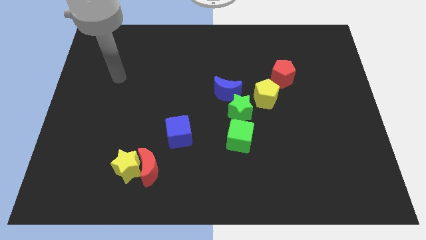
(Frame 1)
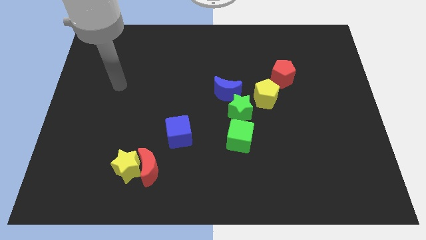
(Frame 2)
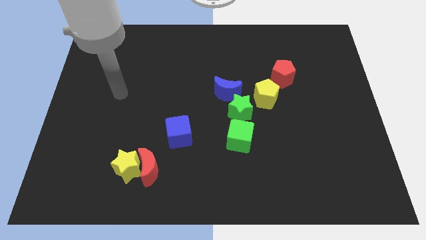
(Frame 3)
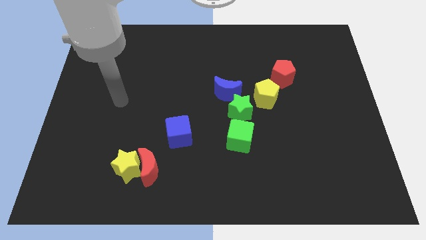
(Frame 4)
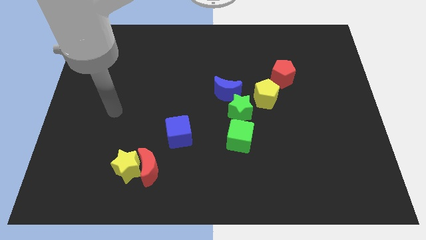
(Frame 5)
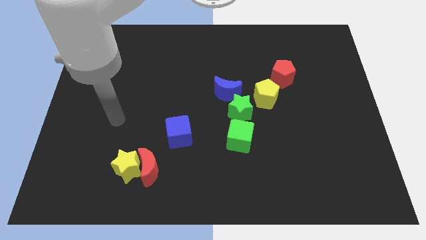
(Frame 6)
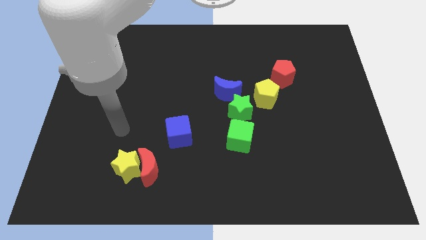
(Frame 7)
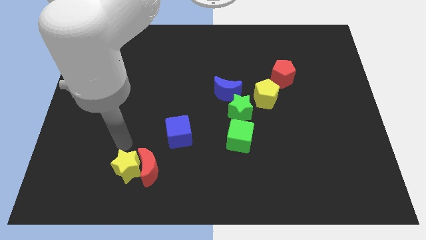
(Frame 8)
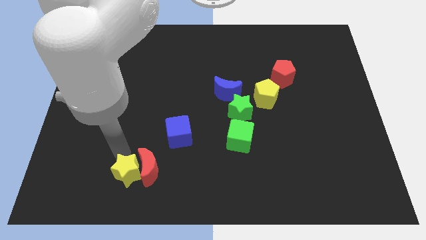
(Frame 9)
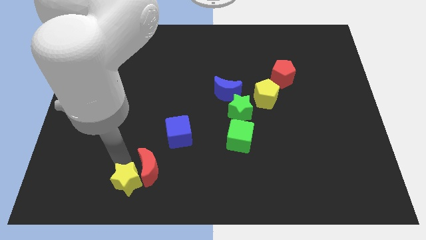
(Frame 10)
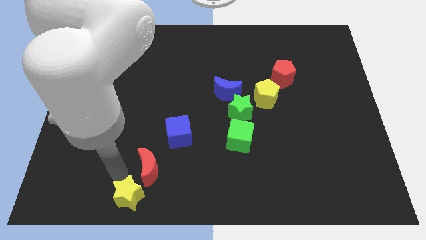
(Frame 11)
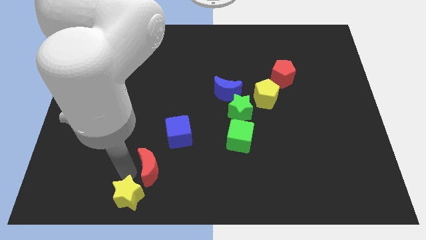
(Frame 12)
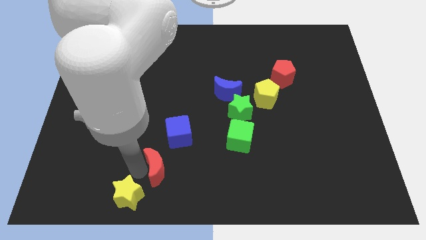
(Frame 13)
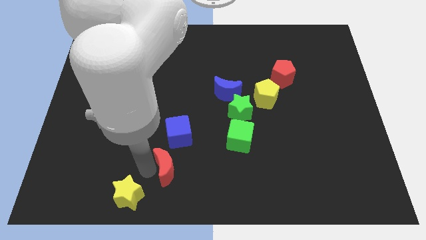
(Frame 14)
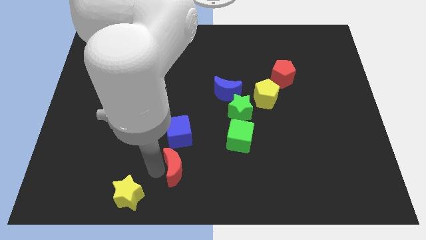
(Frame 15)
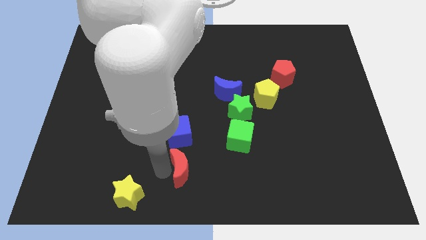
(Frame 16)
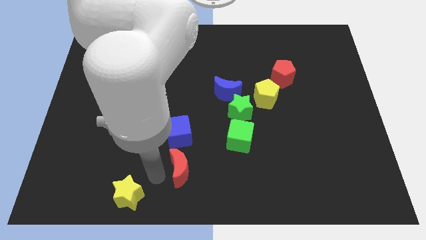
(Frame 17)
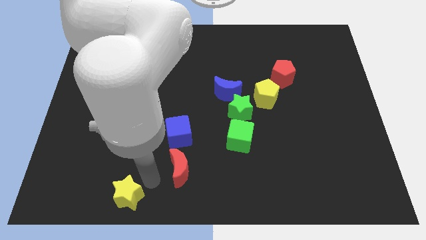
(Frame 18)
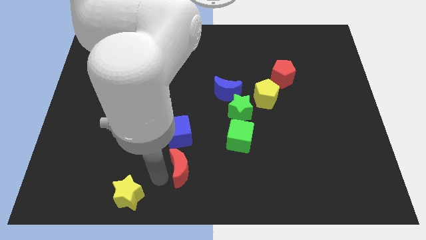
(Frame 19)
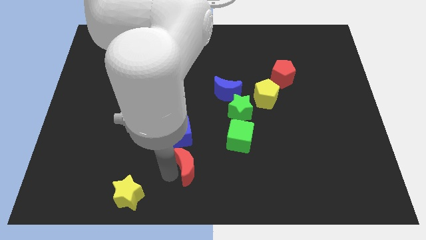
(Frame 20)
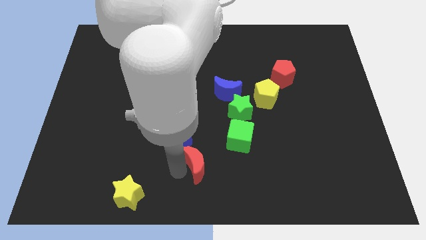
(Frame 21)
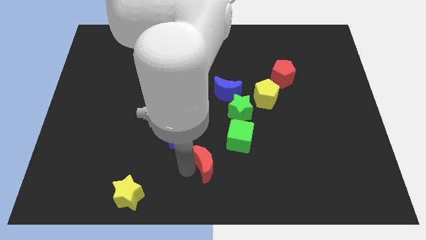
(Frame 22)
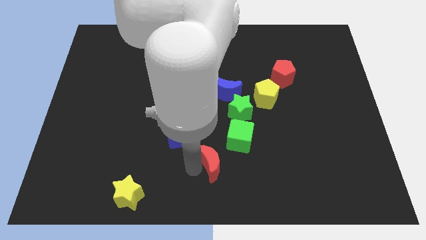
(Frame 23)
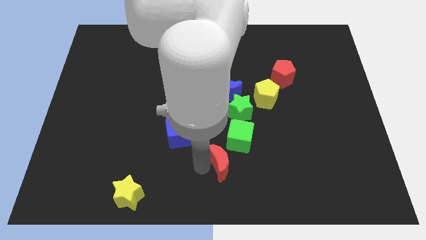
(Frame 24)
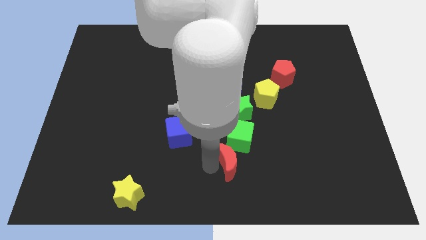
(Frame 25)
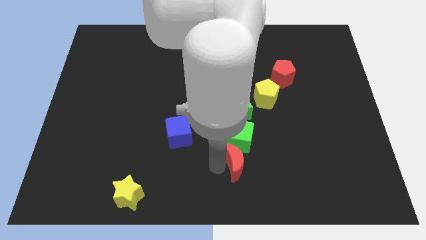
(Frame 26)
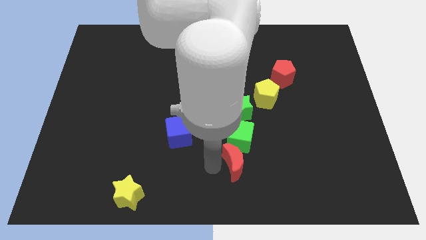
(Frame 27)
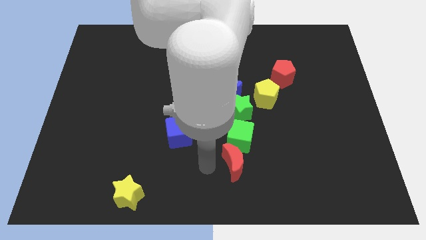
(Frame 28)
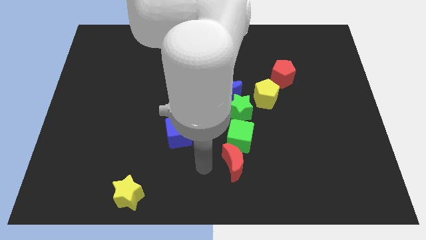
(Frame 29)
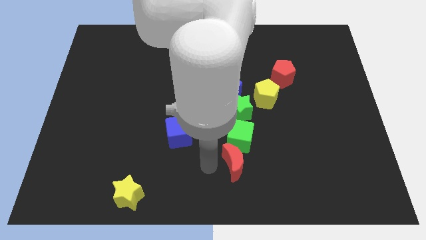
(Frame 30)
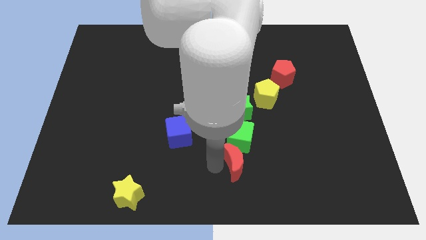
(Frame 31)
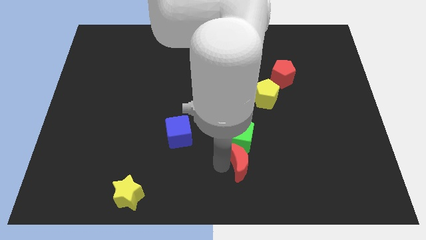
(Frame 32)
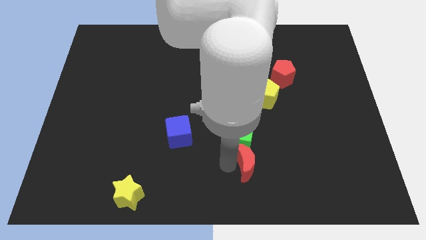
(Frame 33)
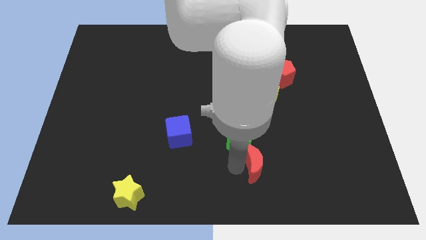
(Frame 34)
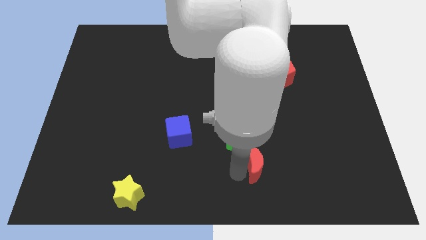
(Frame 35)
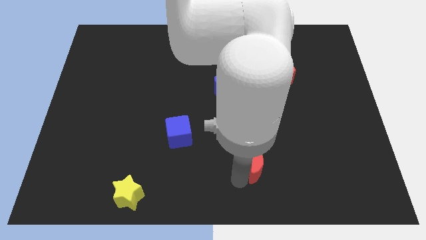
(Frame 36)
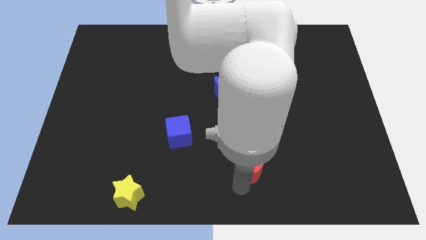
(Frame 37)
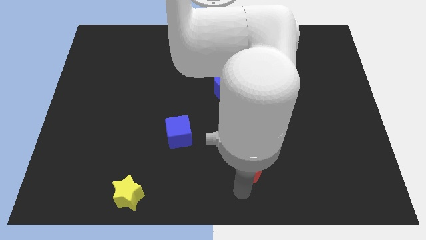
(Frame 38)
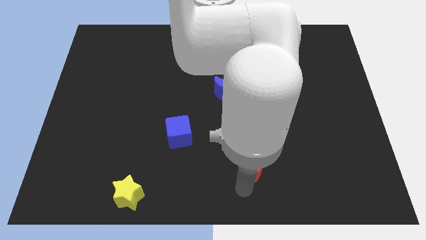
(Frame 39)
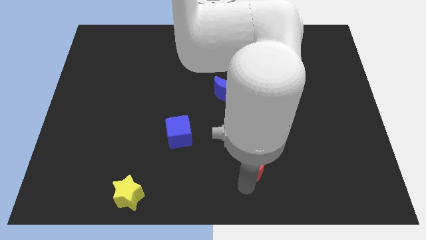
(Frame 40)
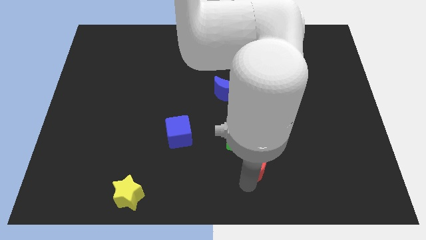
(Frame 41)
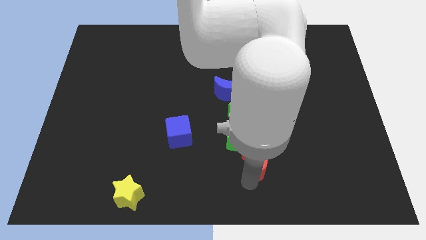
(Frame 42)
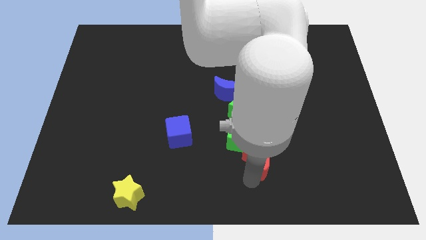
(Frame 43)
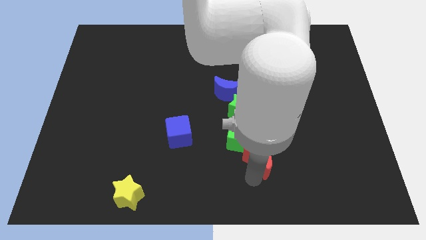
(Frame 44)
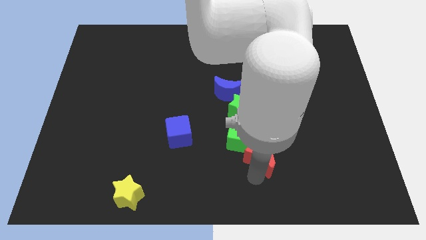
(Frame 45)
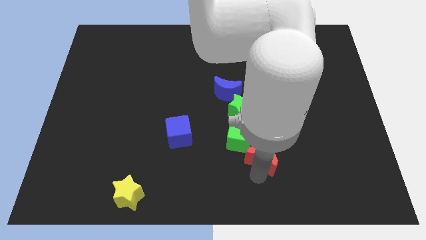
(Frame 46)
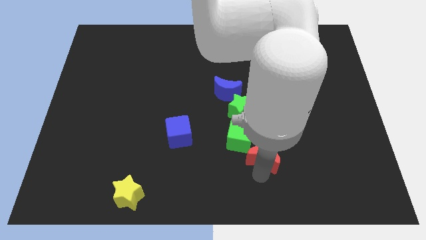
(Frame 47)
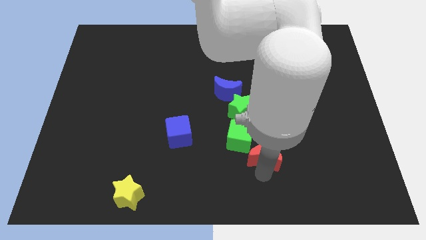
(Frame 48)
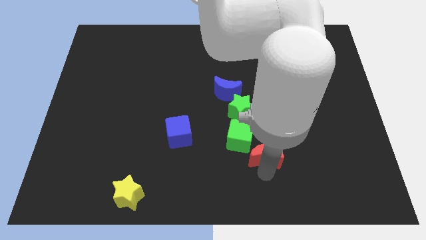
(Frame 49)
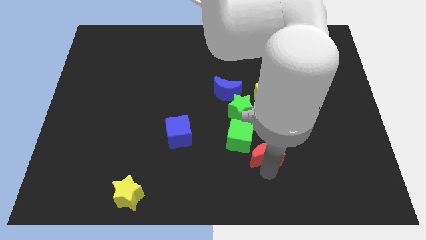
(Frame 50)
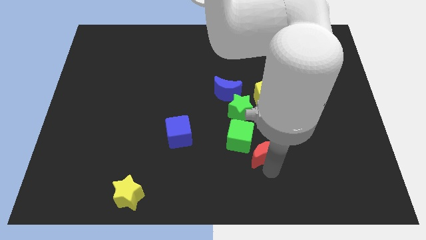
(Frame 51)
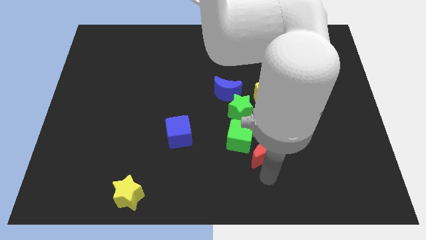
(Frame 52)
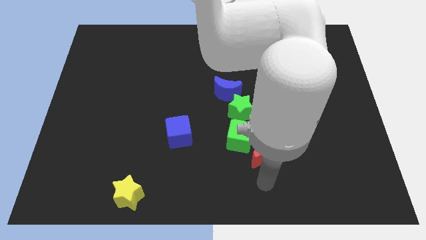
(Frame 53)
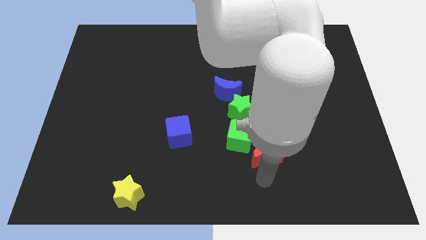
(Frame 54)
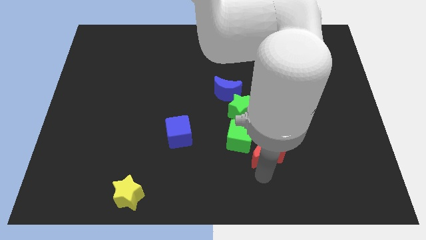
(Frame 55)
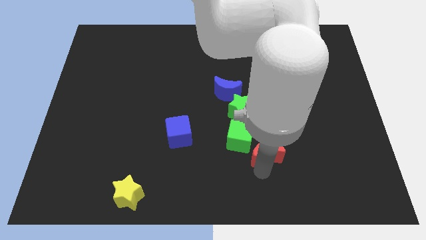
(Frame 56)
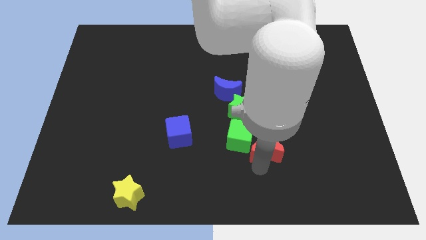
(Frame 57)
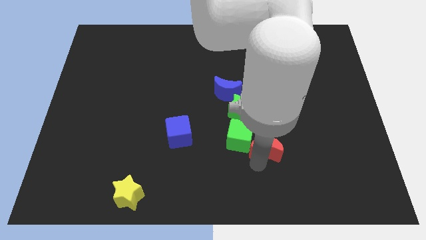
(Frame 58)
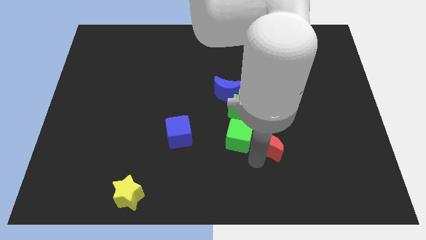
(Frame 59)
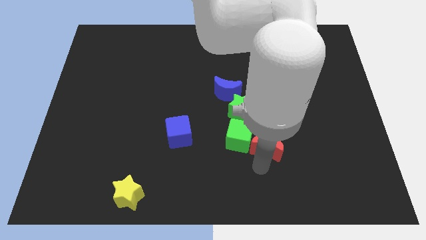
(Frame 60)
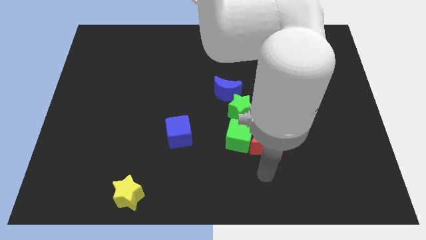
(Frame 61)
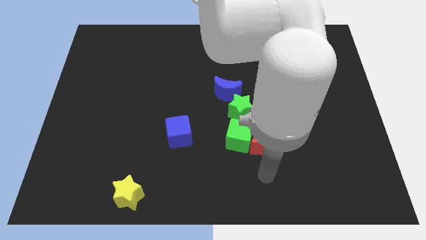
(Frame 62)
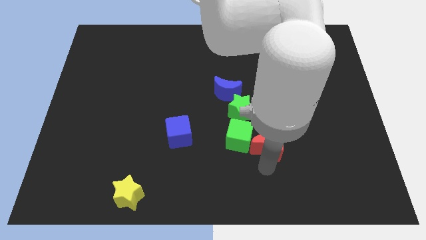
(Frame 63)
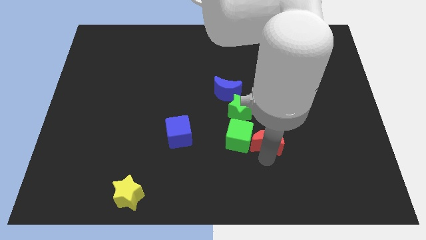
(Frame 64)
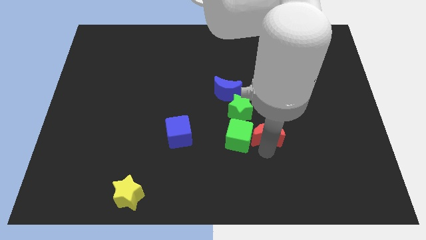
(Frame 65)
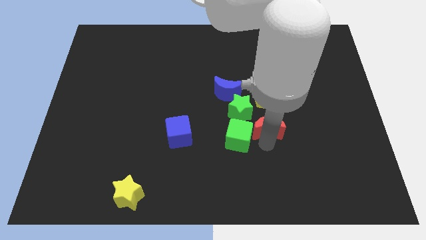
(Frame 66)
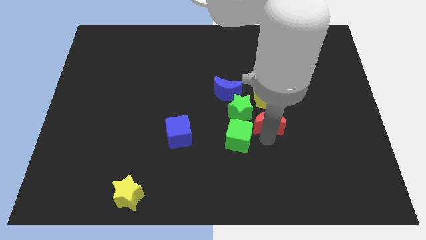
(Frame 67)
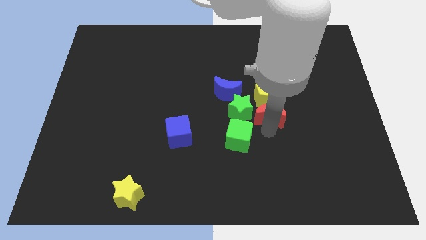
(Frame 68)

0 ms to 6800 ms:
move the red moon close to the yellow pentagon

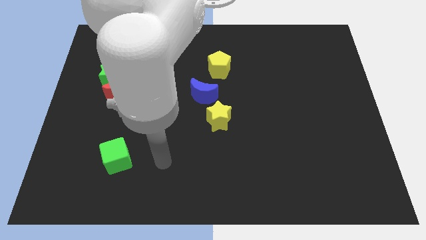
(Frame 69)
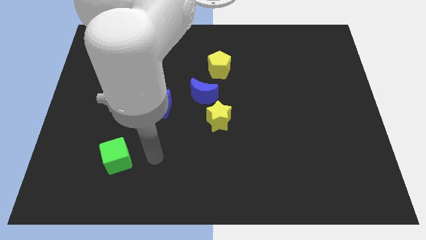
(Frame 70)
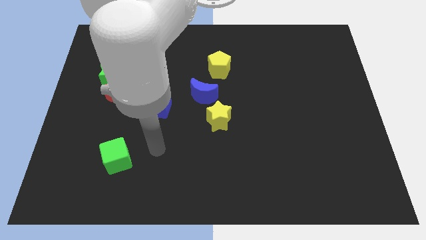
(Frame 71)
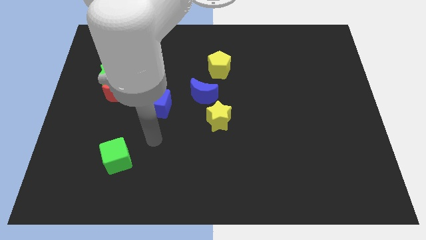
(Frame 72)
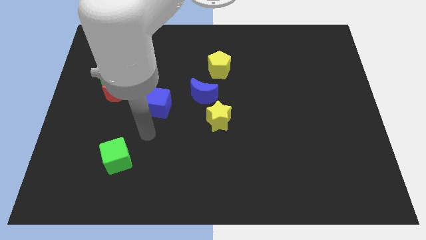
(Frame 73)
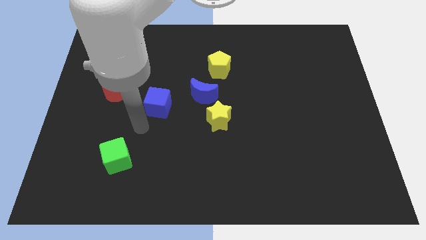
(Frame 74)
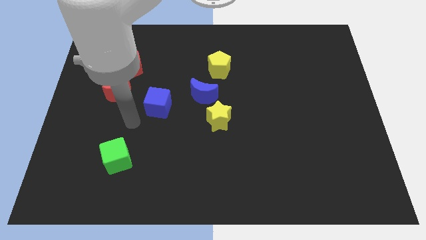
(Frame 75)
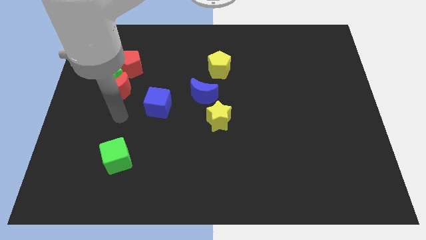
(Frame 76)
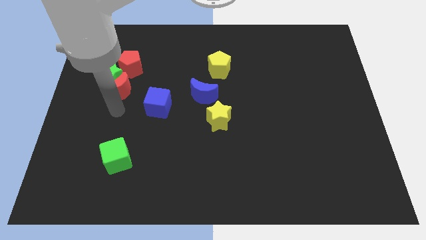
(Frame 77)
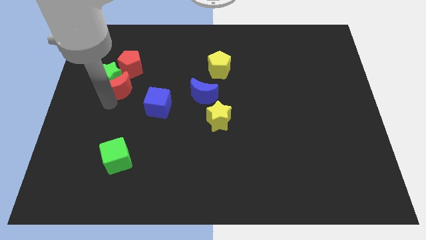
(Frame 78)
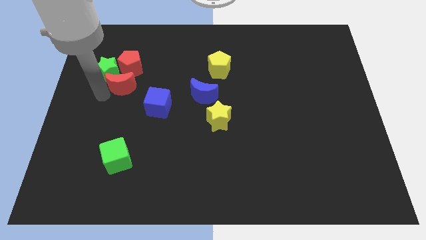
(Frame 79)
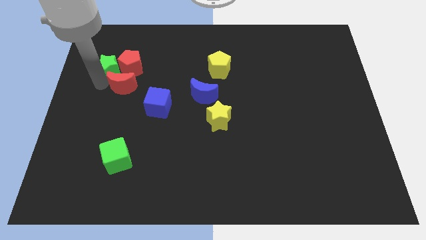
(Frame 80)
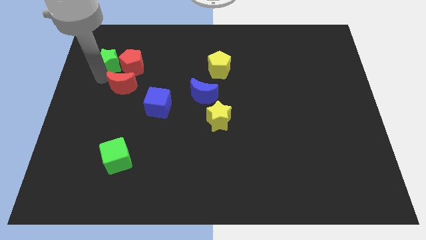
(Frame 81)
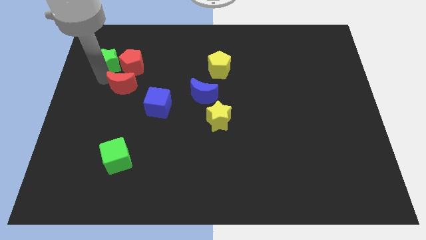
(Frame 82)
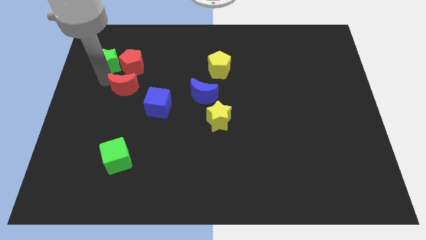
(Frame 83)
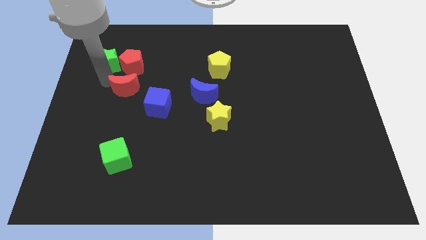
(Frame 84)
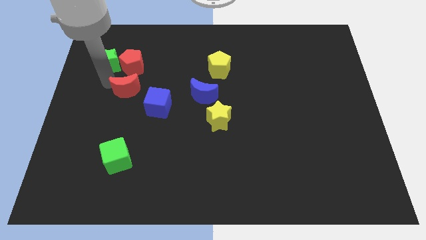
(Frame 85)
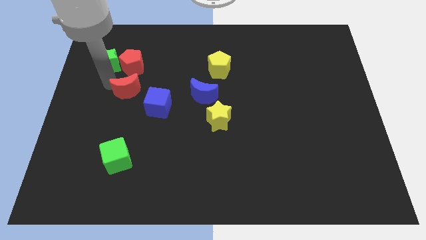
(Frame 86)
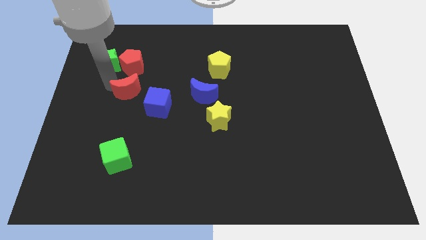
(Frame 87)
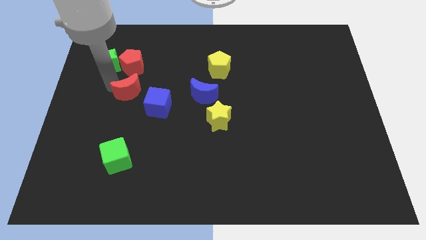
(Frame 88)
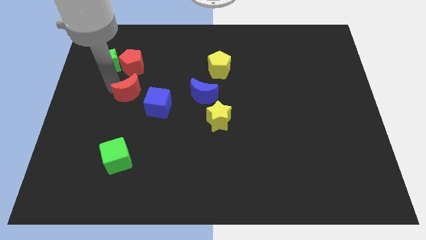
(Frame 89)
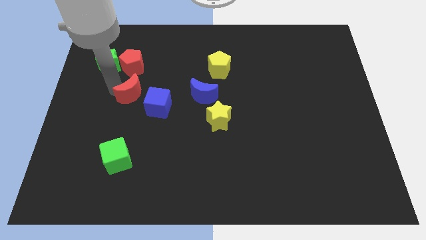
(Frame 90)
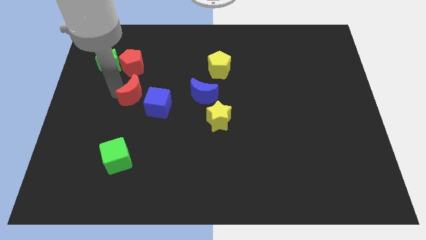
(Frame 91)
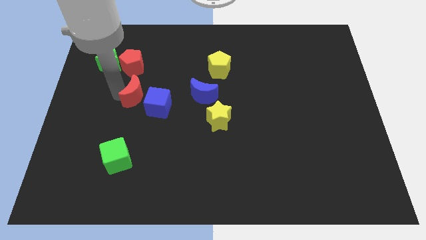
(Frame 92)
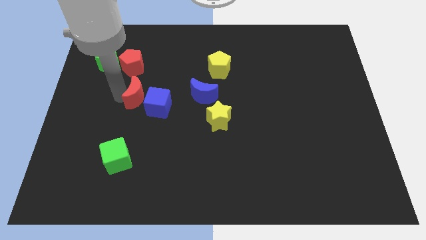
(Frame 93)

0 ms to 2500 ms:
put the red moon towards the blue cube
